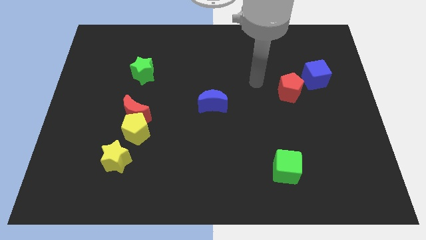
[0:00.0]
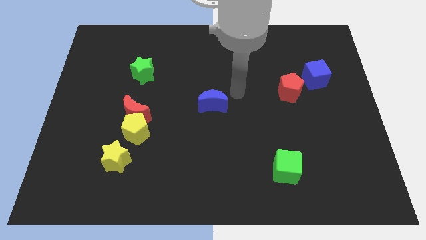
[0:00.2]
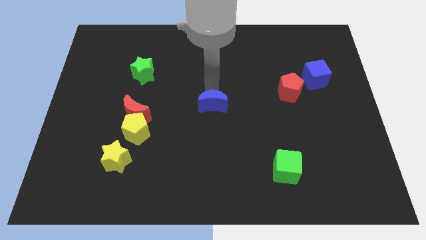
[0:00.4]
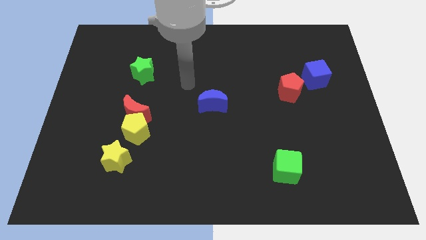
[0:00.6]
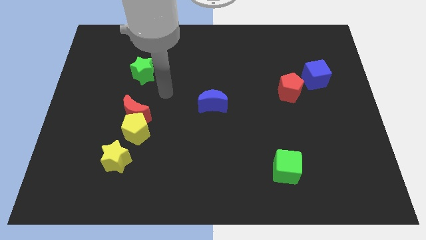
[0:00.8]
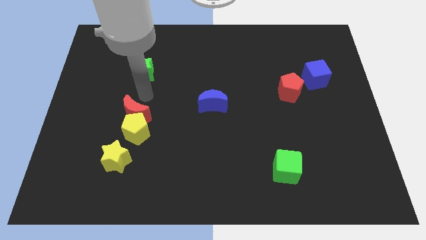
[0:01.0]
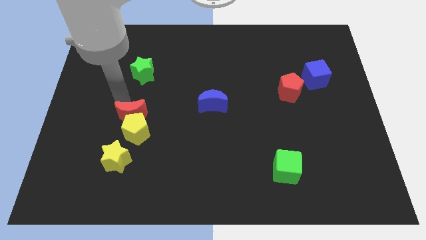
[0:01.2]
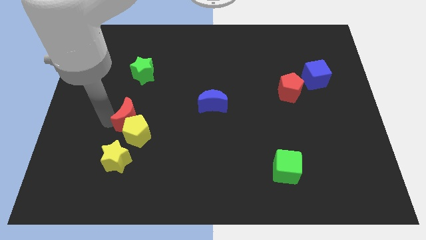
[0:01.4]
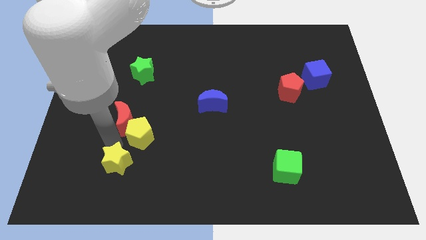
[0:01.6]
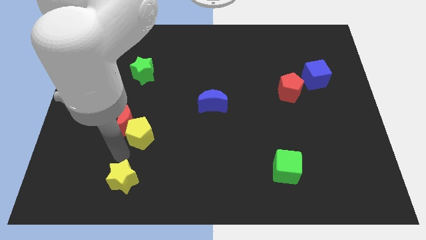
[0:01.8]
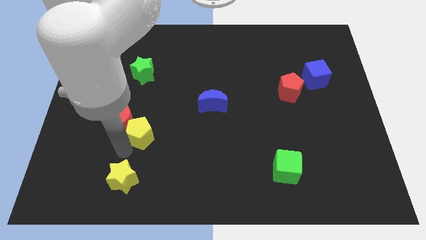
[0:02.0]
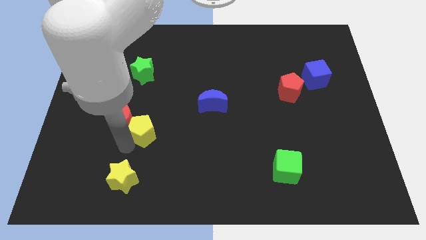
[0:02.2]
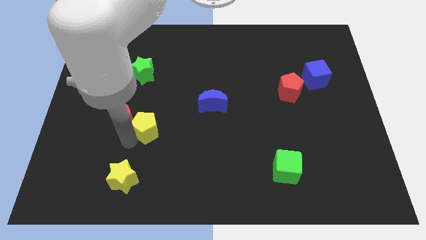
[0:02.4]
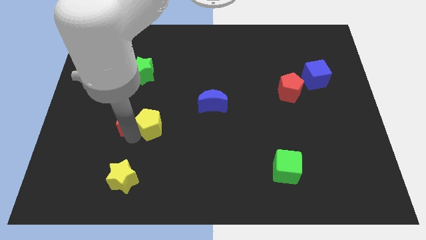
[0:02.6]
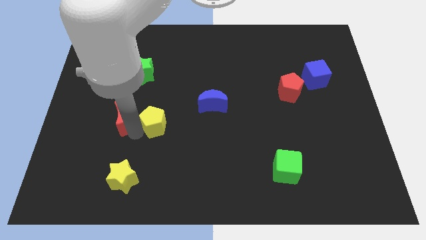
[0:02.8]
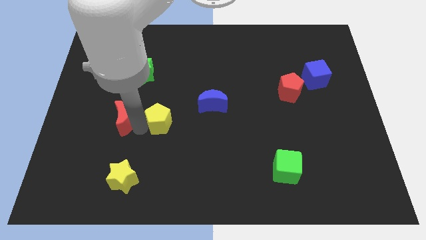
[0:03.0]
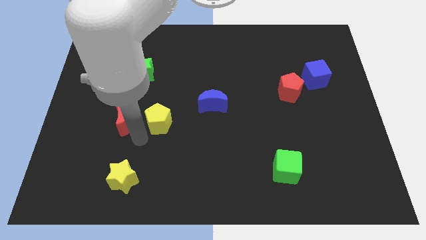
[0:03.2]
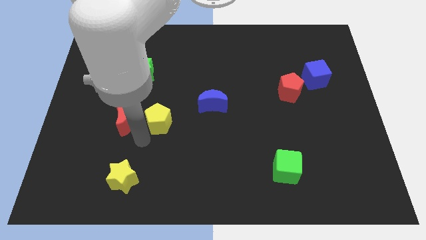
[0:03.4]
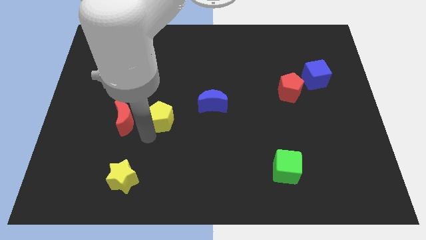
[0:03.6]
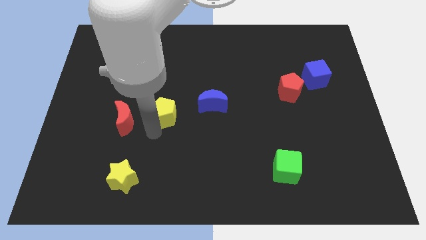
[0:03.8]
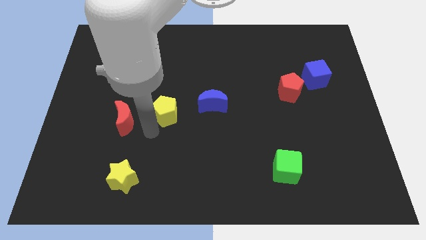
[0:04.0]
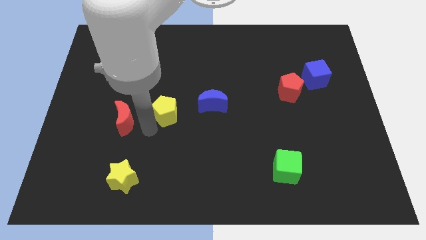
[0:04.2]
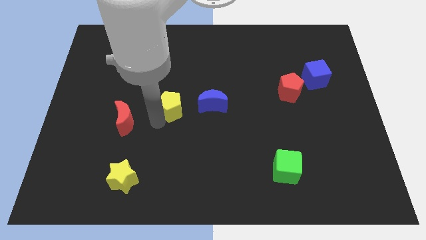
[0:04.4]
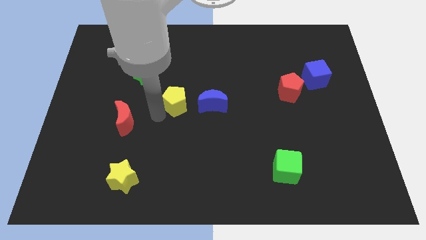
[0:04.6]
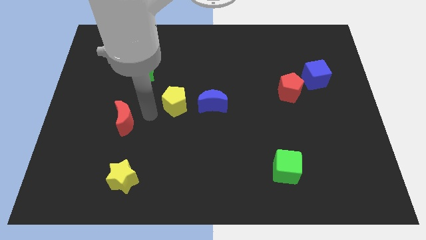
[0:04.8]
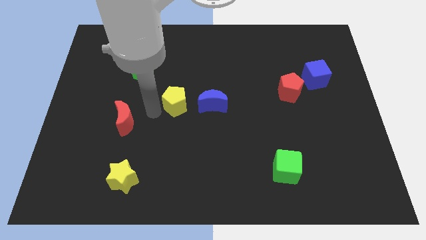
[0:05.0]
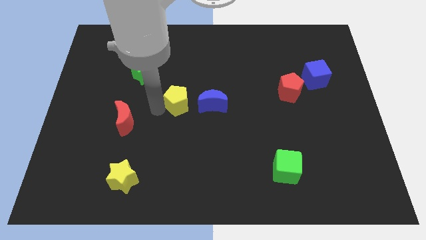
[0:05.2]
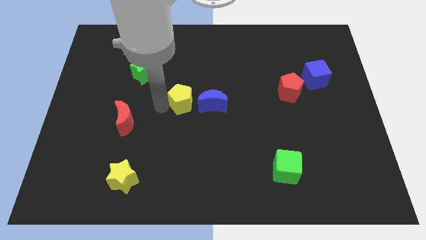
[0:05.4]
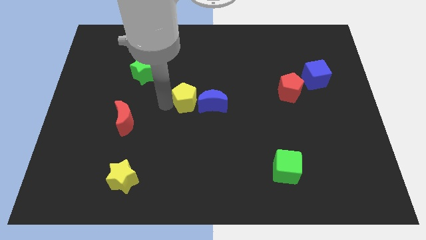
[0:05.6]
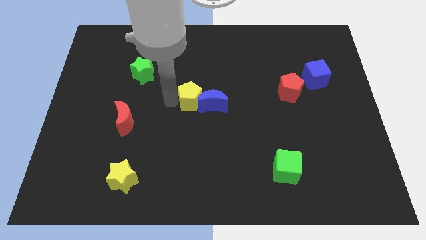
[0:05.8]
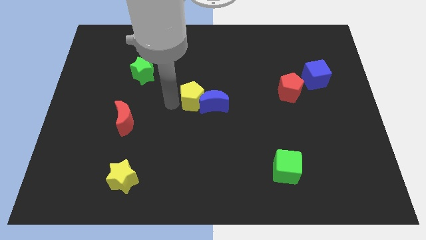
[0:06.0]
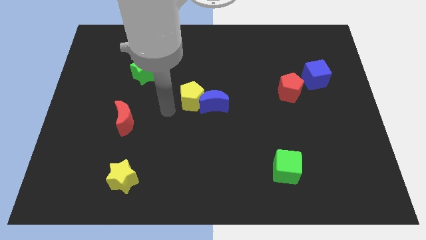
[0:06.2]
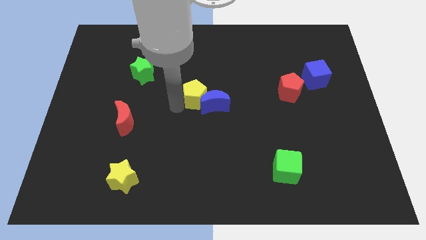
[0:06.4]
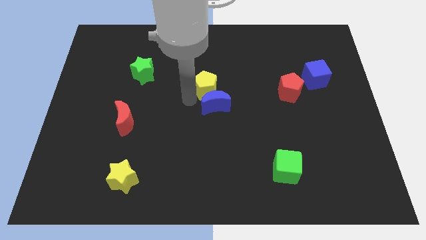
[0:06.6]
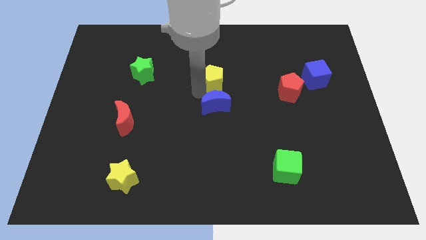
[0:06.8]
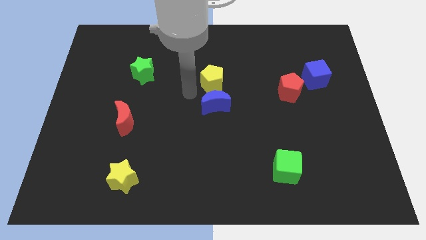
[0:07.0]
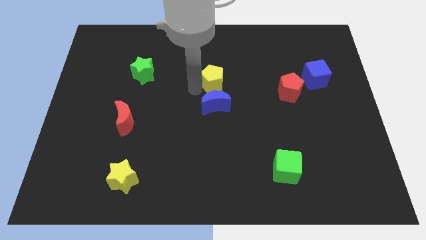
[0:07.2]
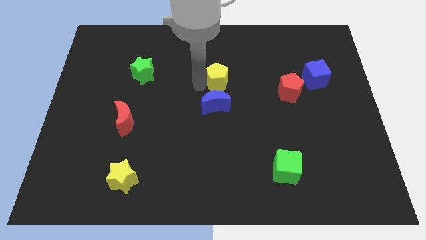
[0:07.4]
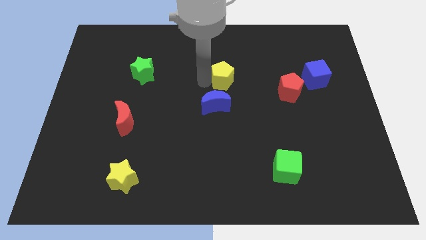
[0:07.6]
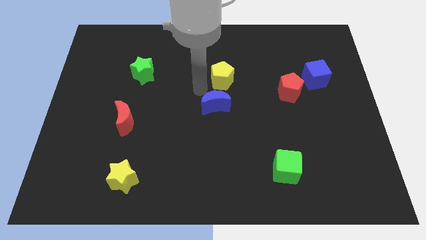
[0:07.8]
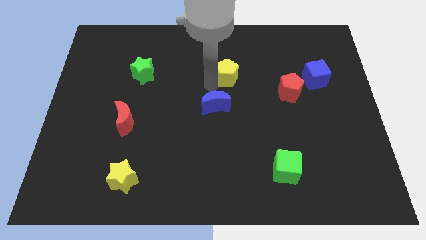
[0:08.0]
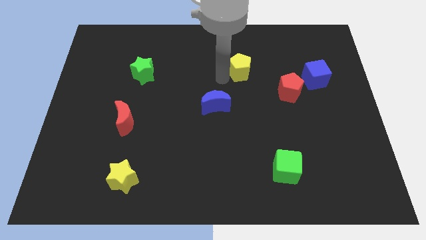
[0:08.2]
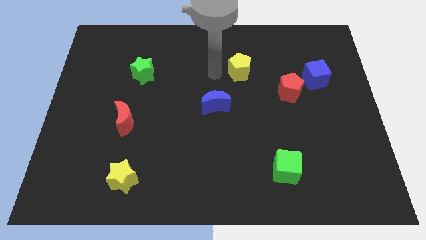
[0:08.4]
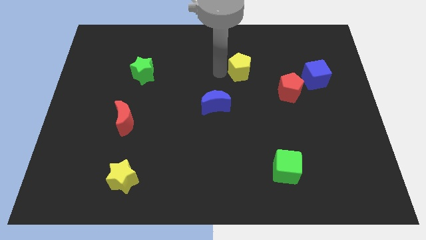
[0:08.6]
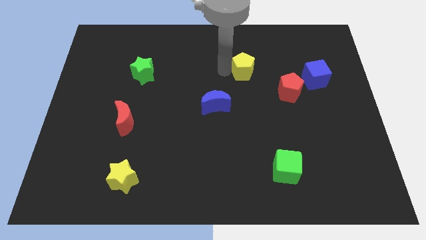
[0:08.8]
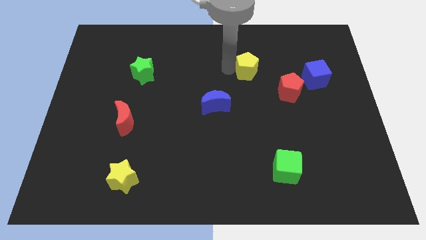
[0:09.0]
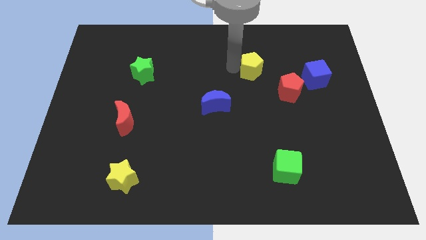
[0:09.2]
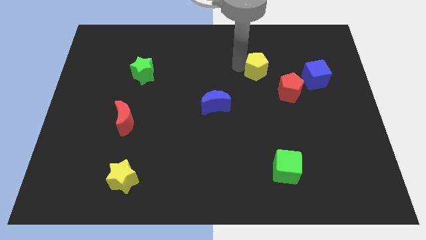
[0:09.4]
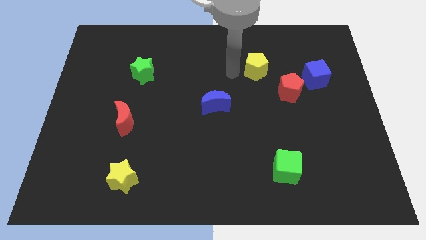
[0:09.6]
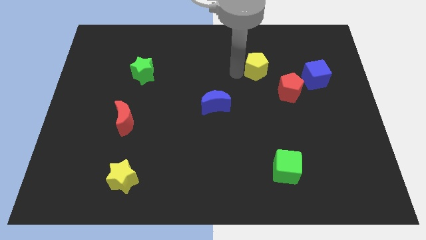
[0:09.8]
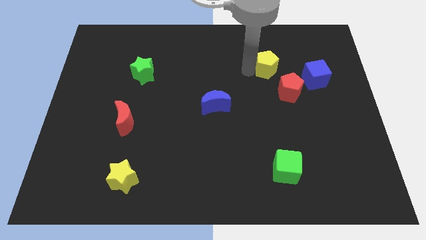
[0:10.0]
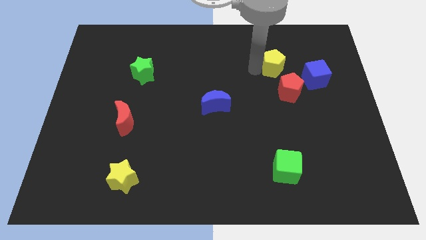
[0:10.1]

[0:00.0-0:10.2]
push the yellow pentagon to the top left side of the blue cube

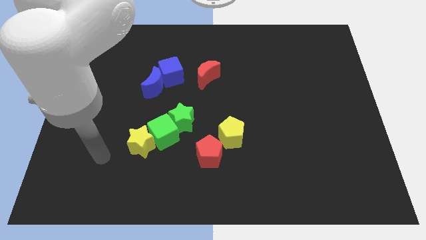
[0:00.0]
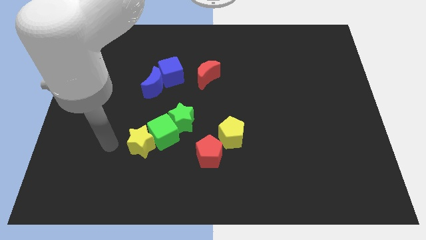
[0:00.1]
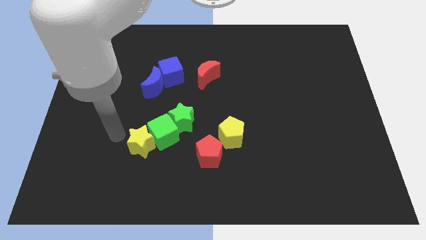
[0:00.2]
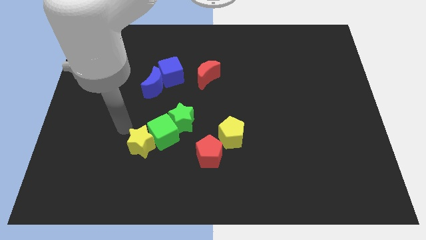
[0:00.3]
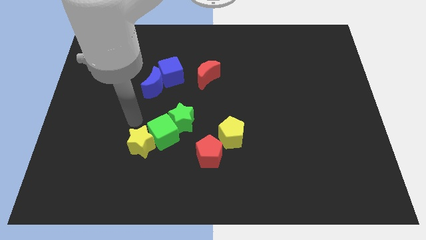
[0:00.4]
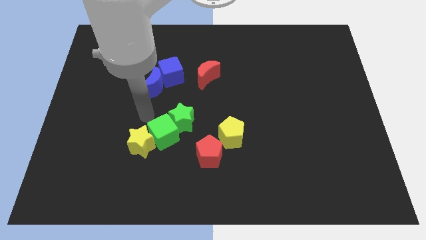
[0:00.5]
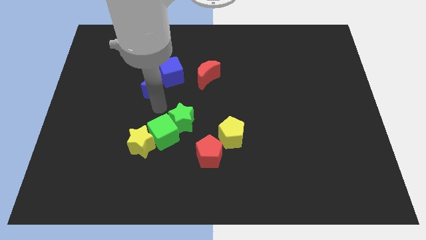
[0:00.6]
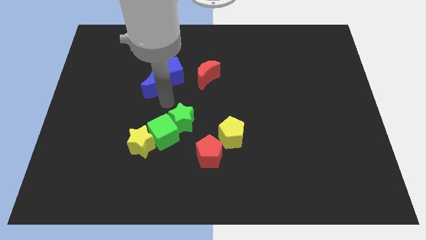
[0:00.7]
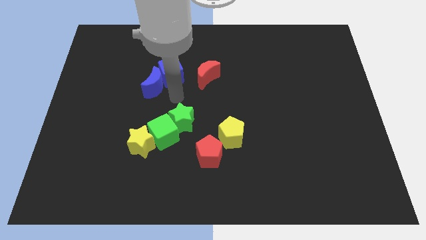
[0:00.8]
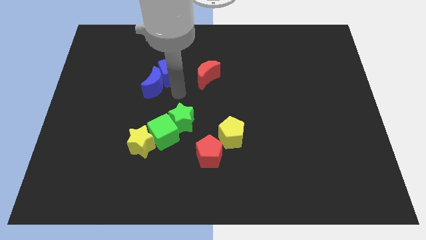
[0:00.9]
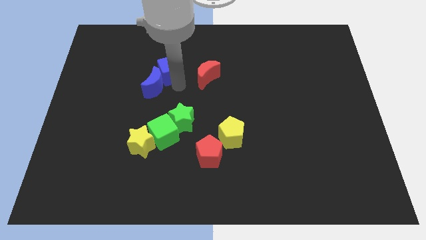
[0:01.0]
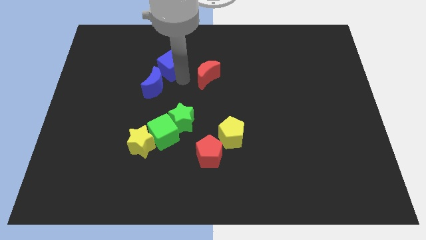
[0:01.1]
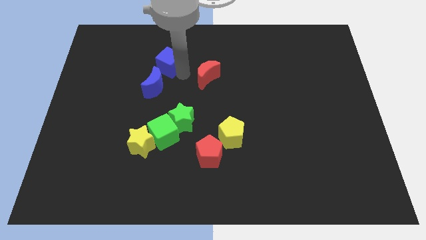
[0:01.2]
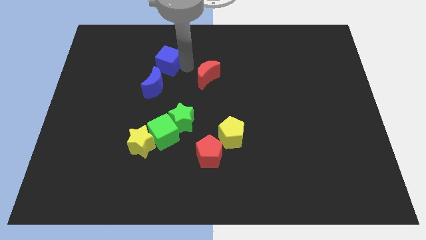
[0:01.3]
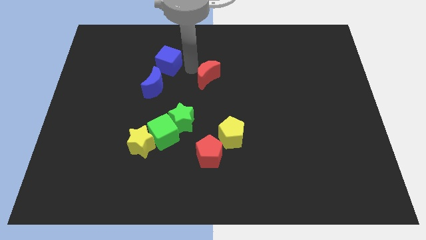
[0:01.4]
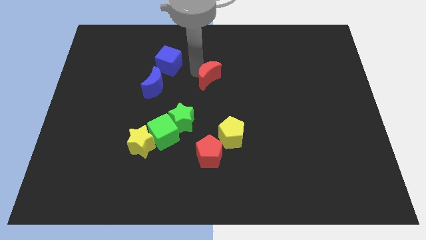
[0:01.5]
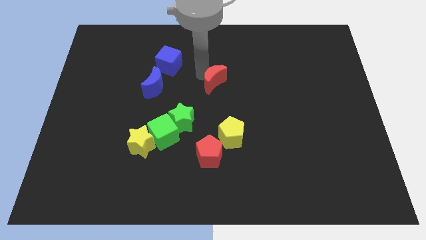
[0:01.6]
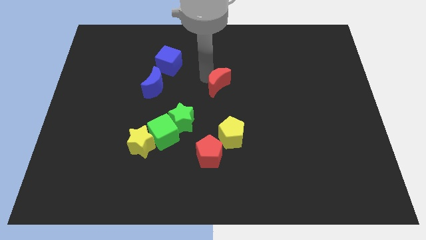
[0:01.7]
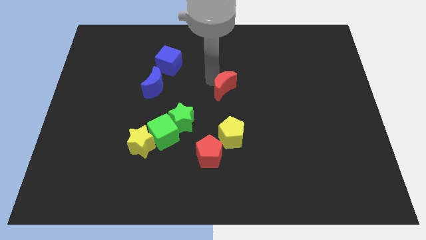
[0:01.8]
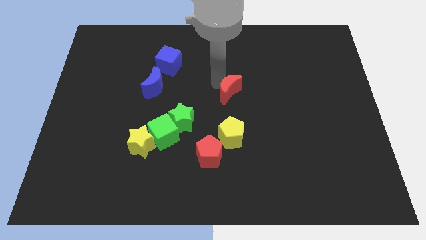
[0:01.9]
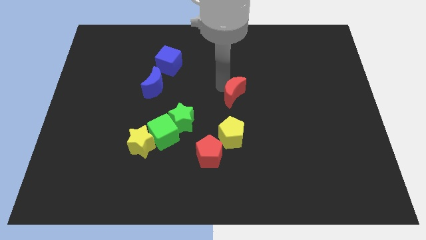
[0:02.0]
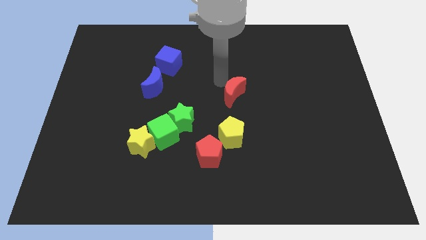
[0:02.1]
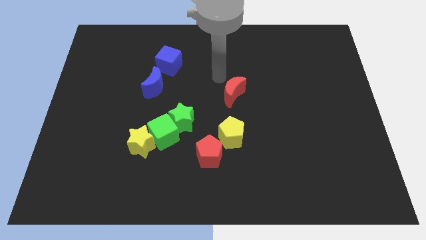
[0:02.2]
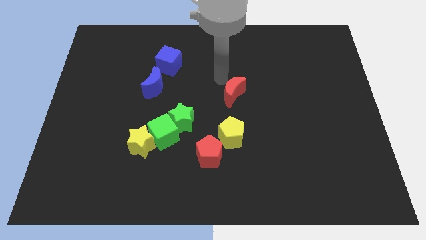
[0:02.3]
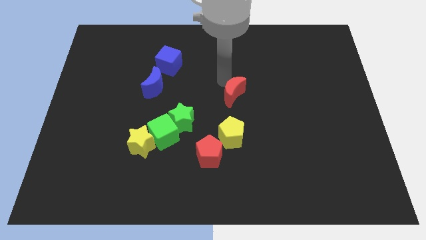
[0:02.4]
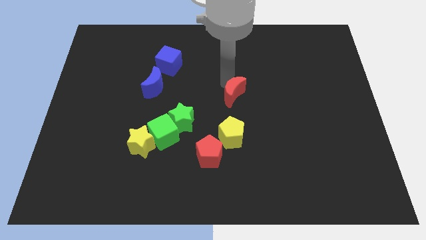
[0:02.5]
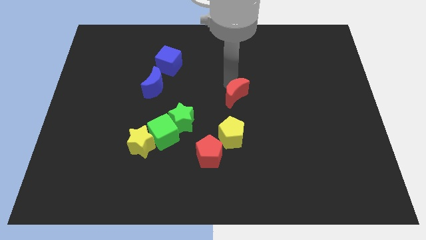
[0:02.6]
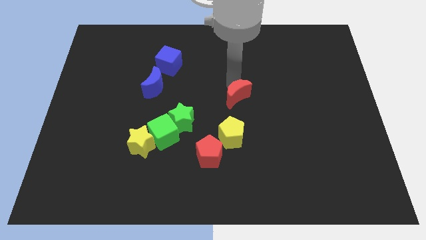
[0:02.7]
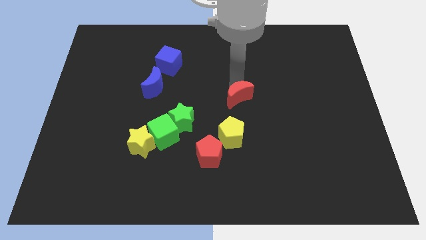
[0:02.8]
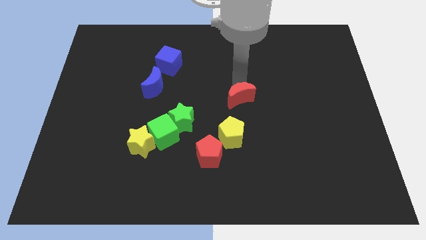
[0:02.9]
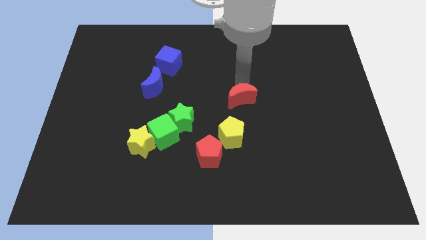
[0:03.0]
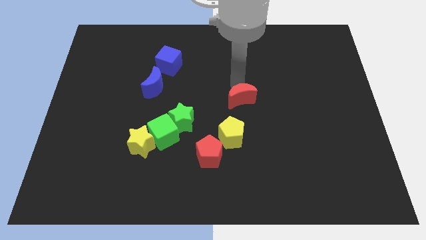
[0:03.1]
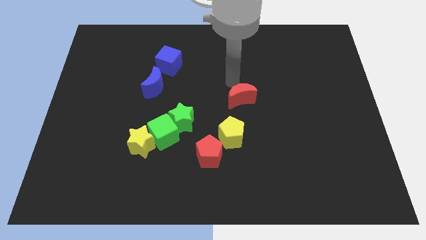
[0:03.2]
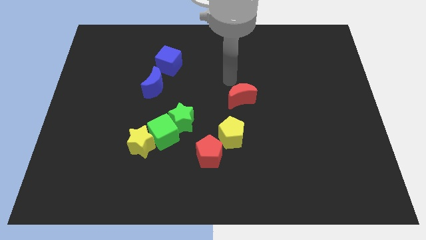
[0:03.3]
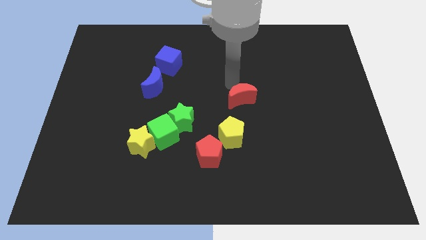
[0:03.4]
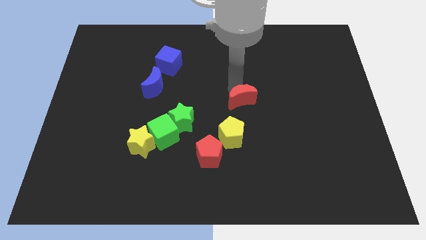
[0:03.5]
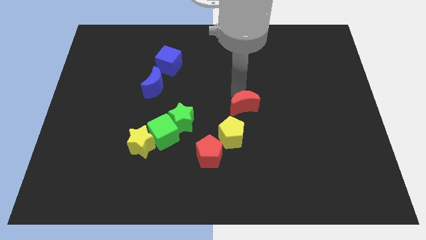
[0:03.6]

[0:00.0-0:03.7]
slide the red moon to the top right side of the yellow pentagon
